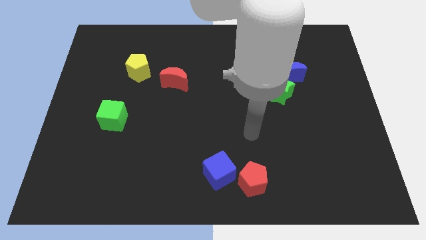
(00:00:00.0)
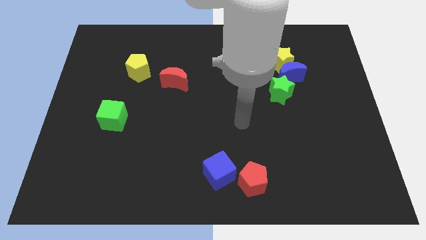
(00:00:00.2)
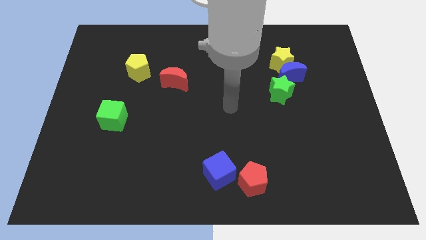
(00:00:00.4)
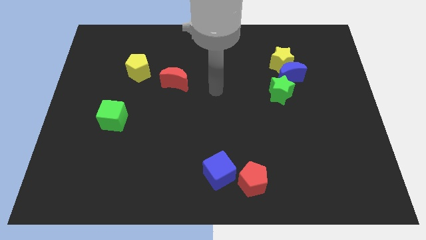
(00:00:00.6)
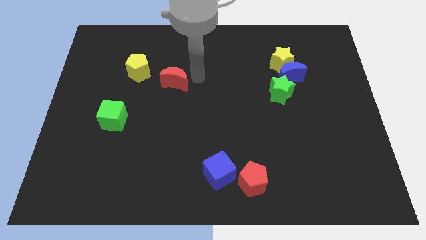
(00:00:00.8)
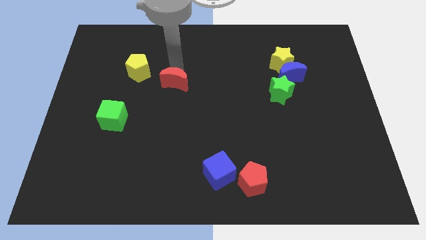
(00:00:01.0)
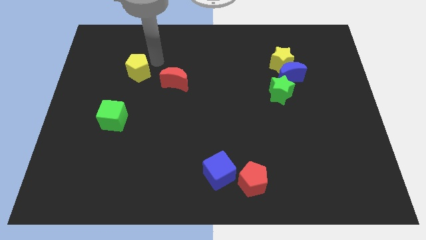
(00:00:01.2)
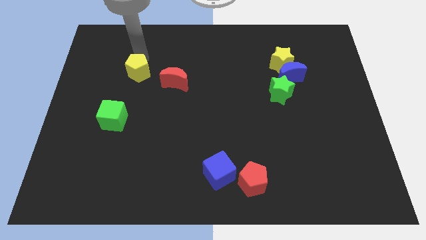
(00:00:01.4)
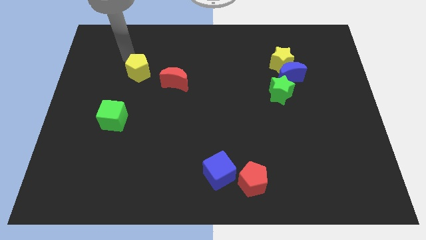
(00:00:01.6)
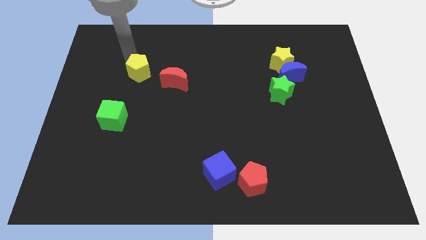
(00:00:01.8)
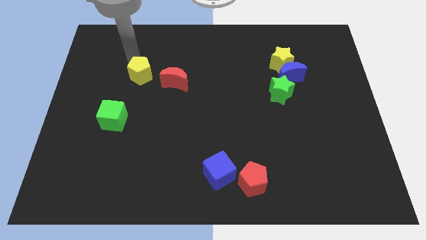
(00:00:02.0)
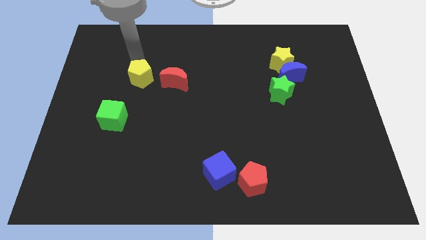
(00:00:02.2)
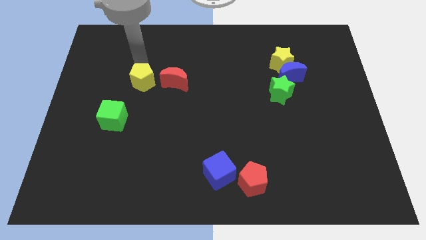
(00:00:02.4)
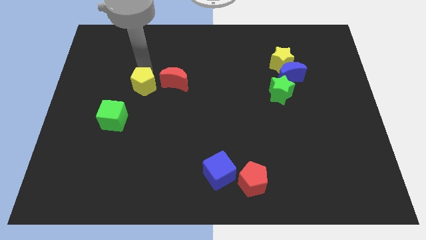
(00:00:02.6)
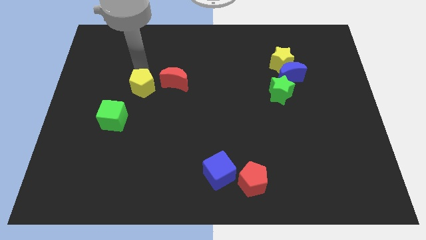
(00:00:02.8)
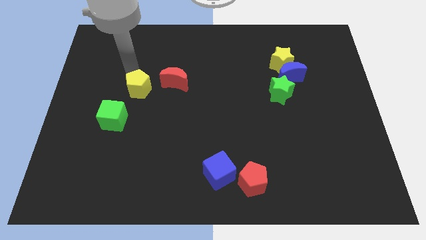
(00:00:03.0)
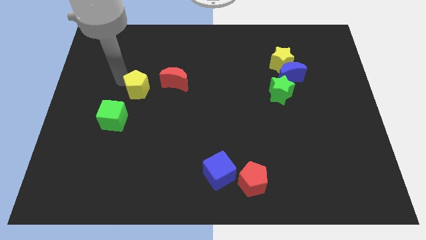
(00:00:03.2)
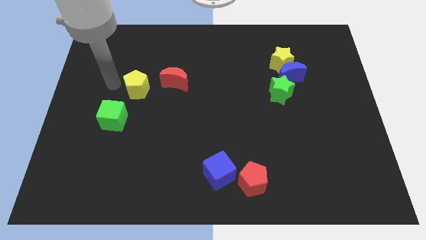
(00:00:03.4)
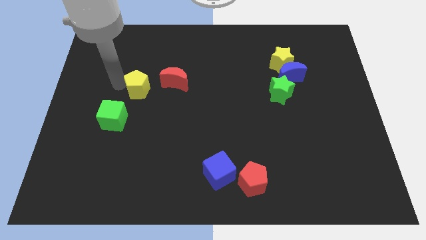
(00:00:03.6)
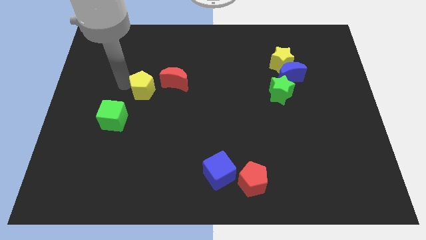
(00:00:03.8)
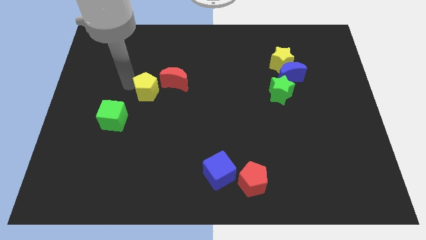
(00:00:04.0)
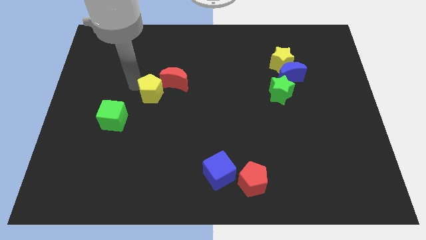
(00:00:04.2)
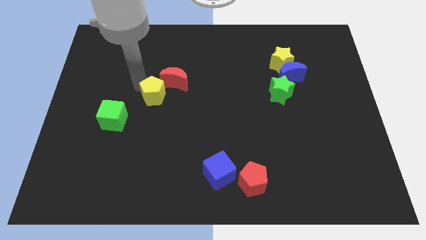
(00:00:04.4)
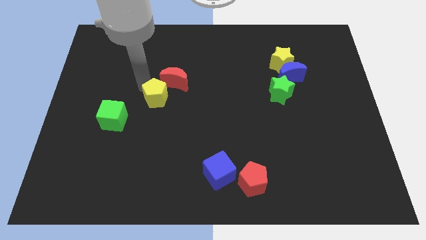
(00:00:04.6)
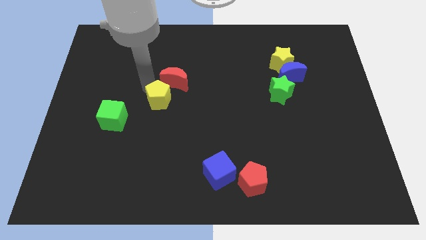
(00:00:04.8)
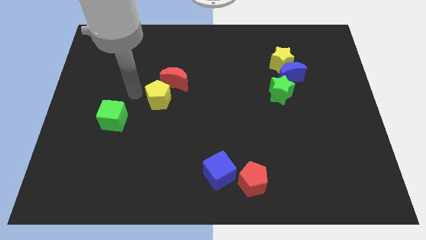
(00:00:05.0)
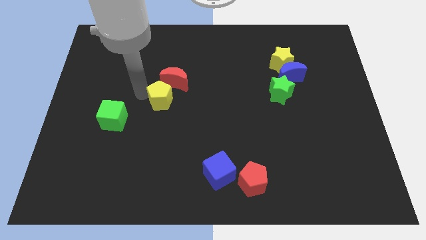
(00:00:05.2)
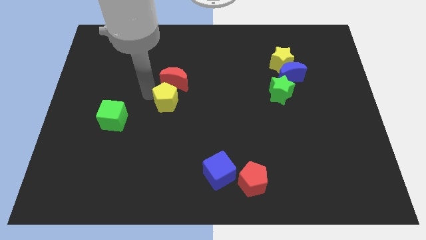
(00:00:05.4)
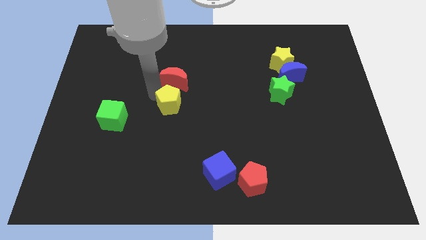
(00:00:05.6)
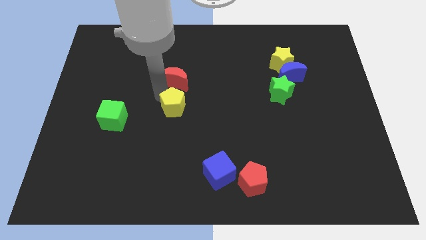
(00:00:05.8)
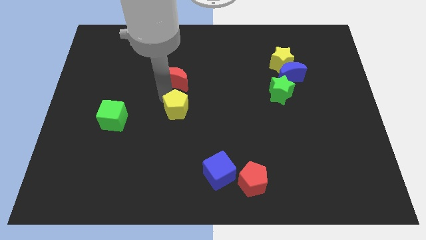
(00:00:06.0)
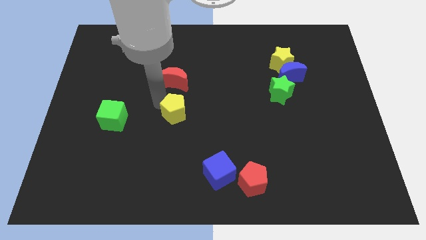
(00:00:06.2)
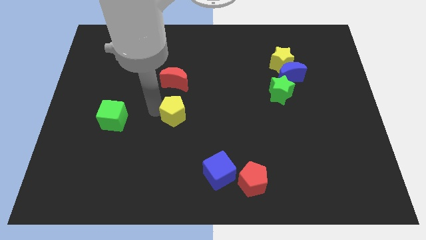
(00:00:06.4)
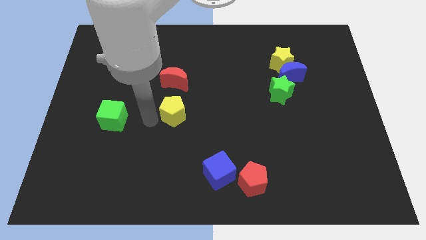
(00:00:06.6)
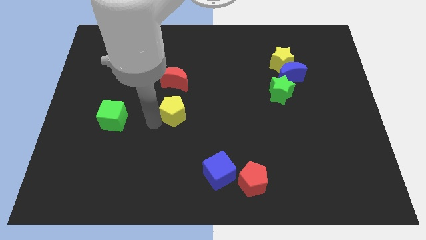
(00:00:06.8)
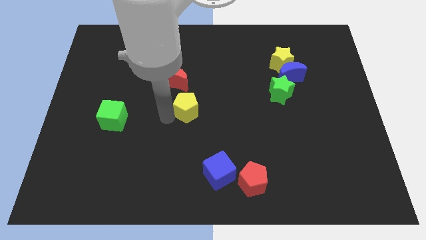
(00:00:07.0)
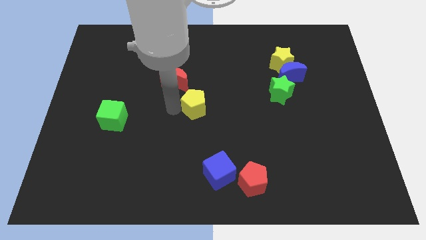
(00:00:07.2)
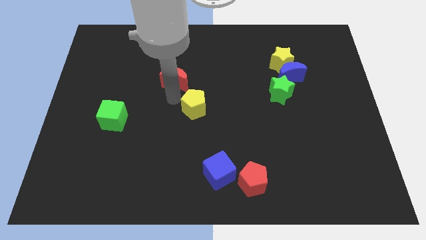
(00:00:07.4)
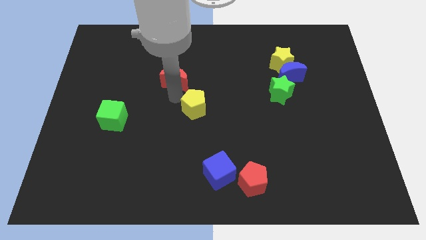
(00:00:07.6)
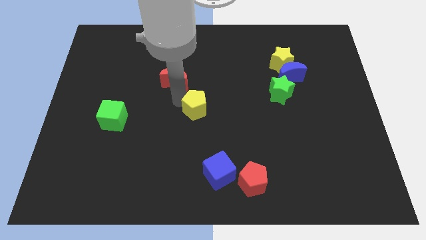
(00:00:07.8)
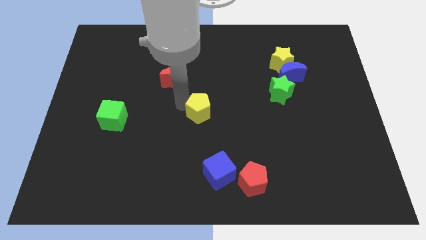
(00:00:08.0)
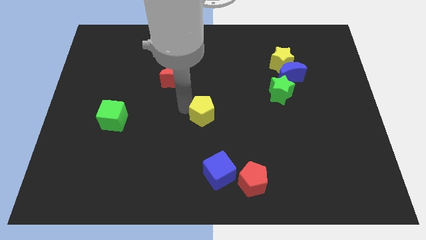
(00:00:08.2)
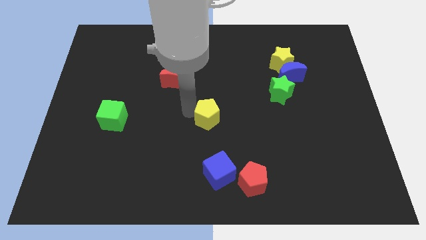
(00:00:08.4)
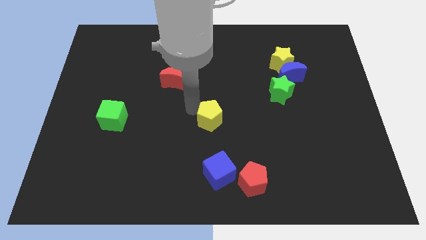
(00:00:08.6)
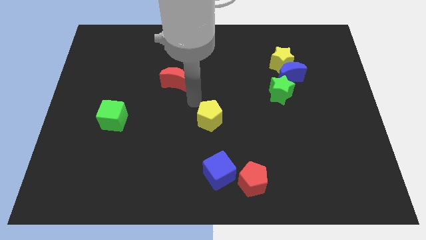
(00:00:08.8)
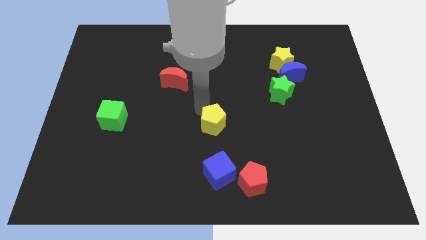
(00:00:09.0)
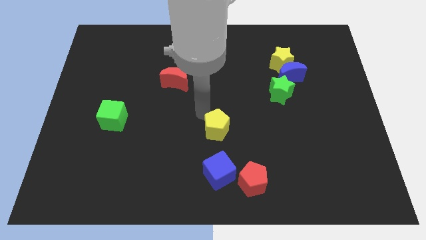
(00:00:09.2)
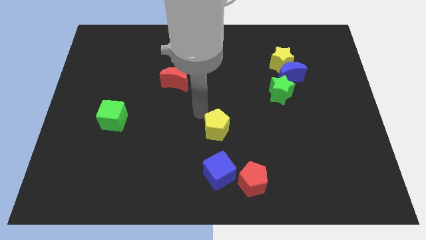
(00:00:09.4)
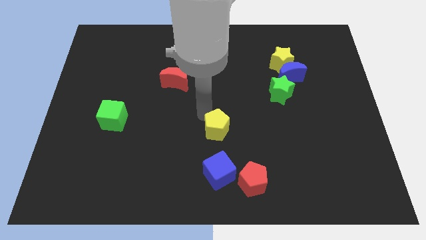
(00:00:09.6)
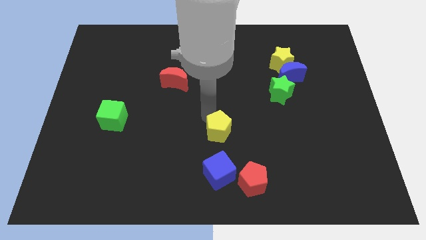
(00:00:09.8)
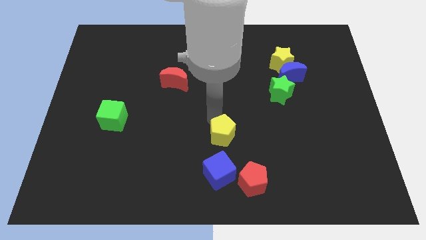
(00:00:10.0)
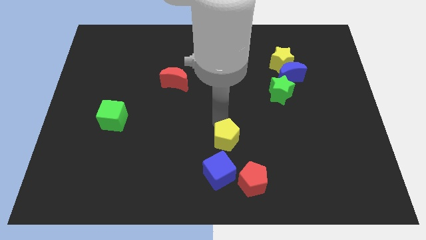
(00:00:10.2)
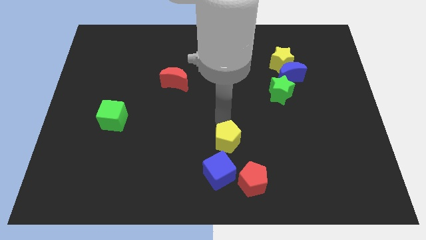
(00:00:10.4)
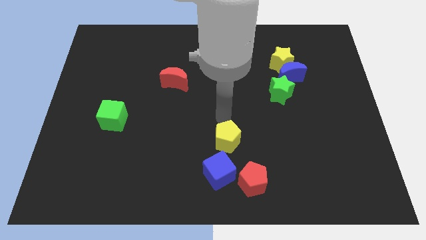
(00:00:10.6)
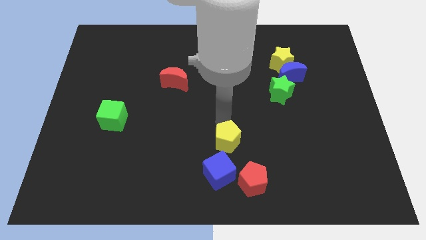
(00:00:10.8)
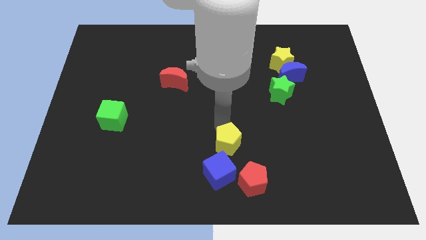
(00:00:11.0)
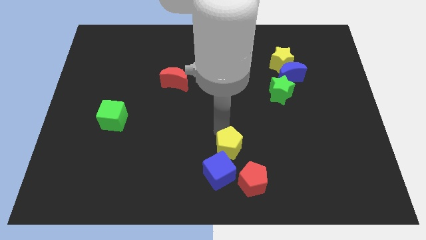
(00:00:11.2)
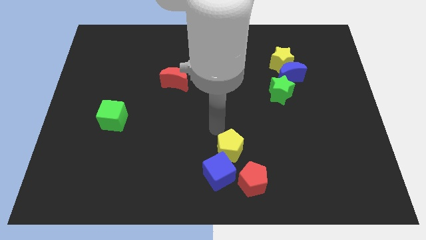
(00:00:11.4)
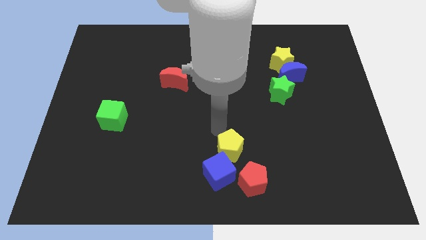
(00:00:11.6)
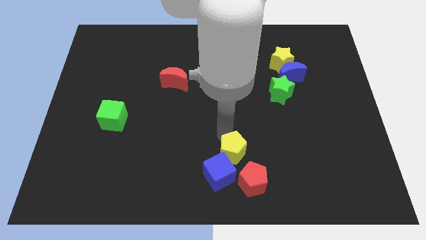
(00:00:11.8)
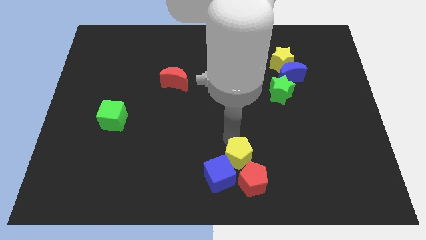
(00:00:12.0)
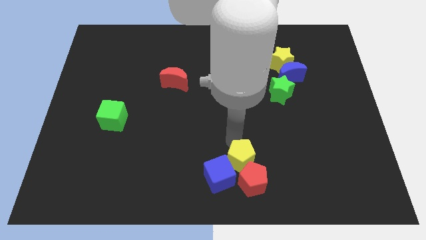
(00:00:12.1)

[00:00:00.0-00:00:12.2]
move the yellow pentagon close to the red pentagon

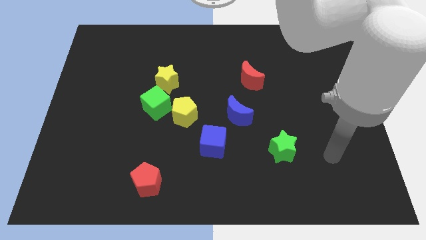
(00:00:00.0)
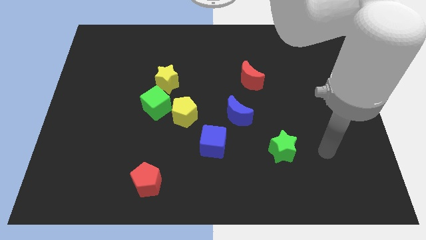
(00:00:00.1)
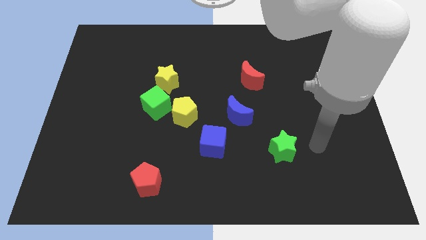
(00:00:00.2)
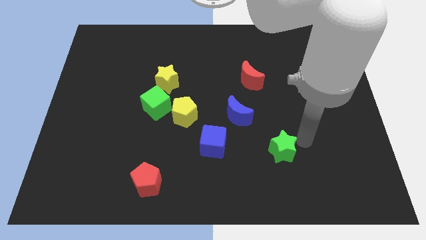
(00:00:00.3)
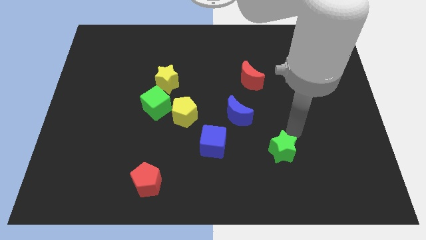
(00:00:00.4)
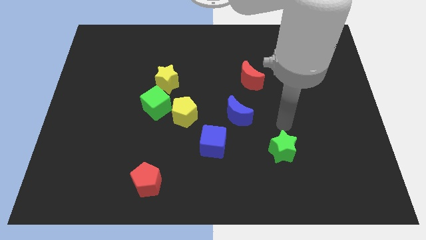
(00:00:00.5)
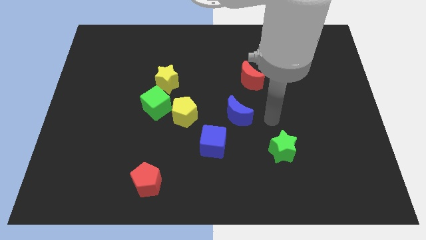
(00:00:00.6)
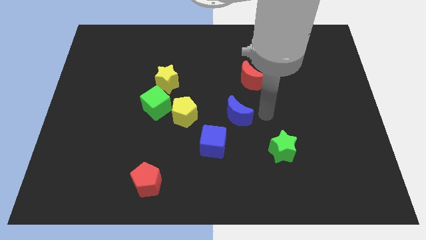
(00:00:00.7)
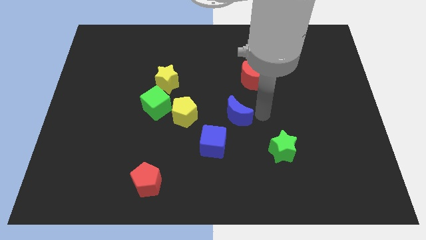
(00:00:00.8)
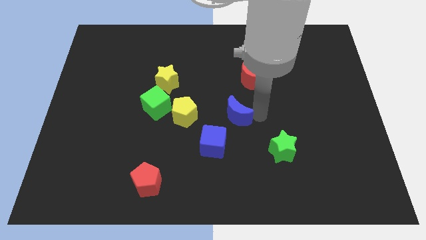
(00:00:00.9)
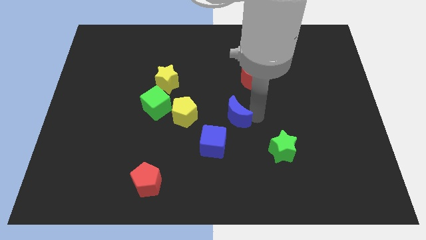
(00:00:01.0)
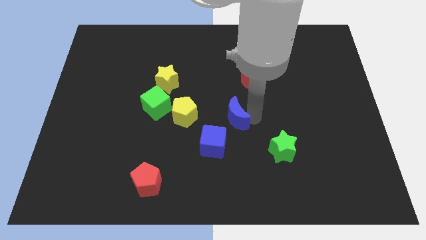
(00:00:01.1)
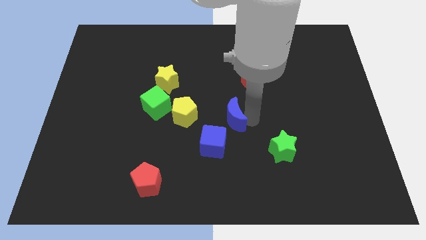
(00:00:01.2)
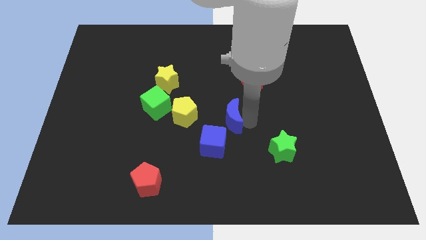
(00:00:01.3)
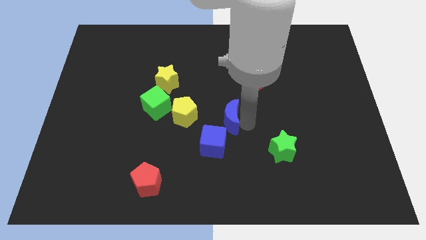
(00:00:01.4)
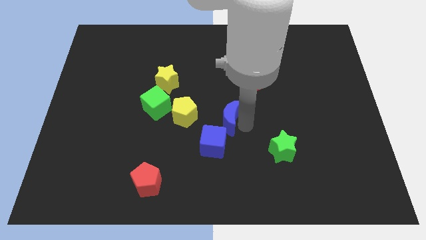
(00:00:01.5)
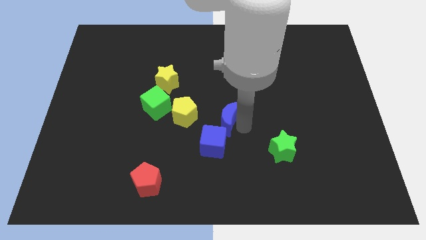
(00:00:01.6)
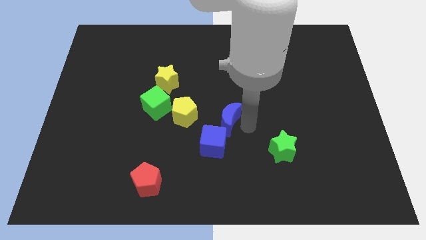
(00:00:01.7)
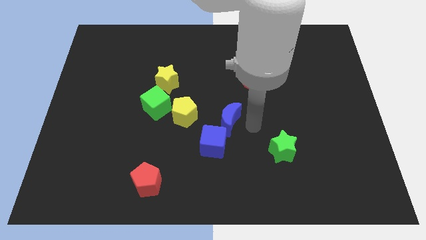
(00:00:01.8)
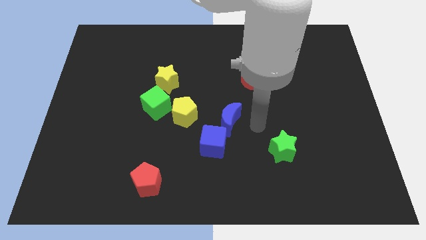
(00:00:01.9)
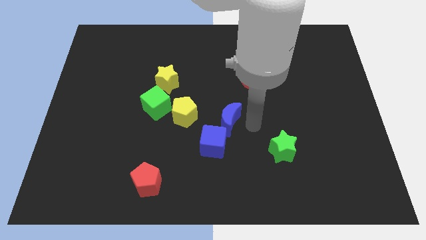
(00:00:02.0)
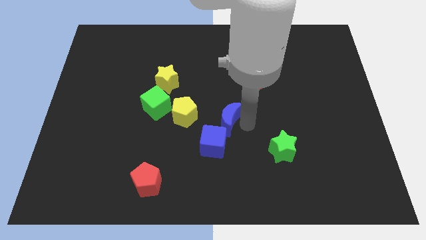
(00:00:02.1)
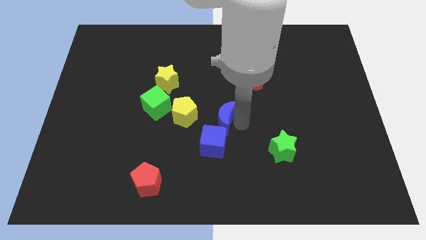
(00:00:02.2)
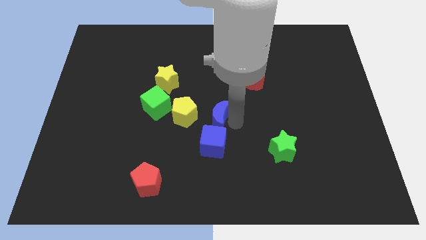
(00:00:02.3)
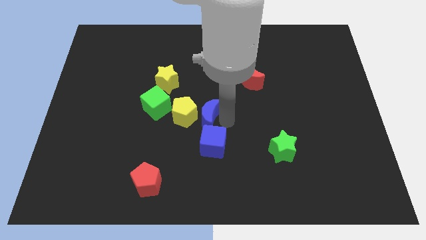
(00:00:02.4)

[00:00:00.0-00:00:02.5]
slide the blue moon next to the yellow pentagon
